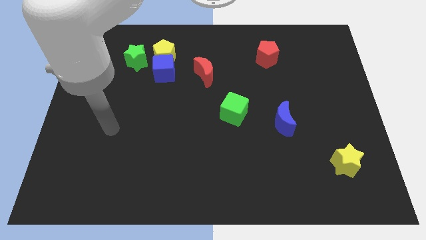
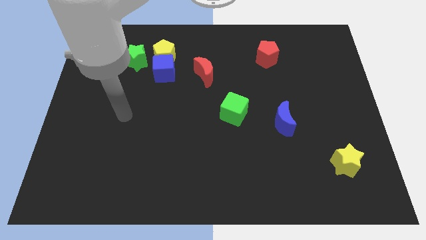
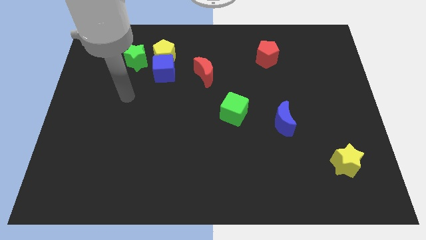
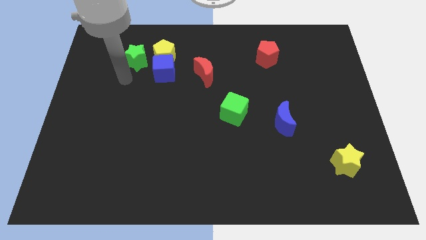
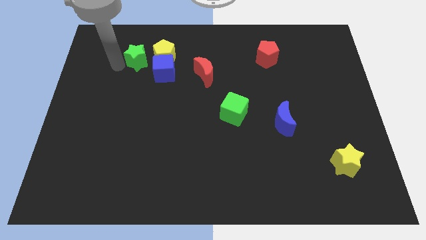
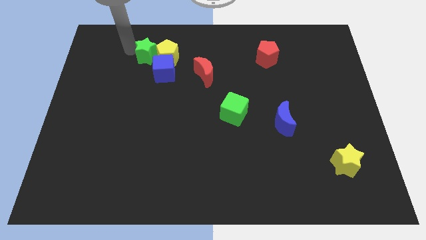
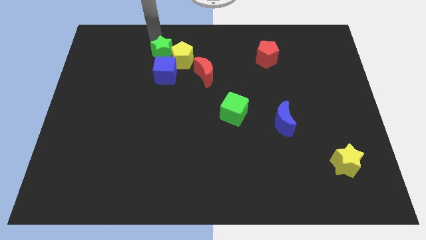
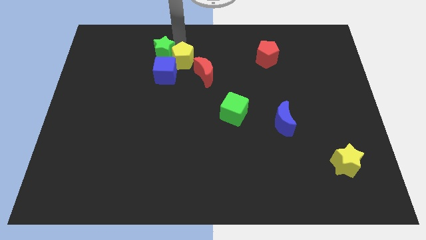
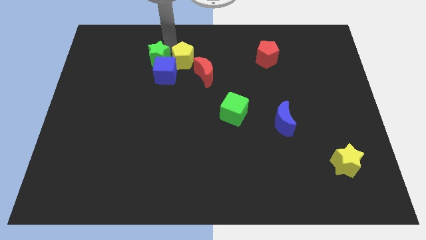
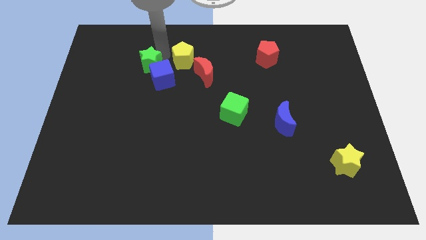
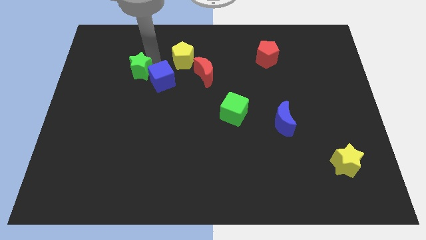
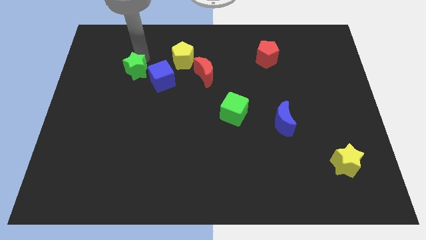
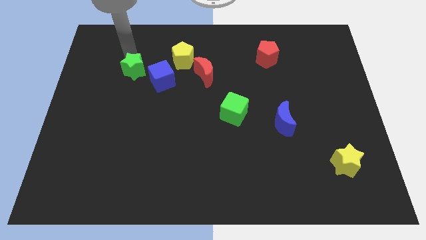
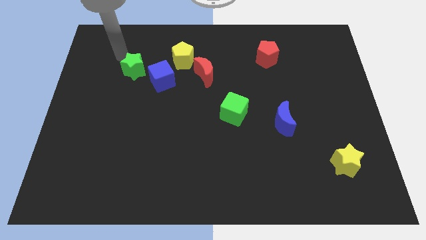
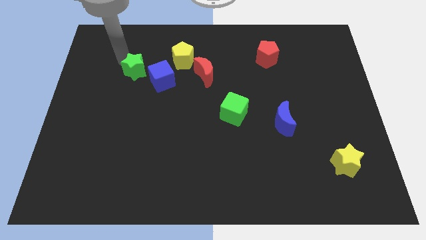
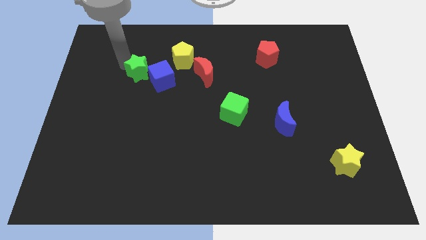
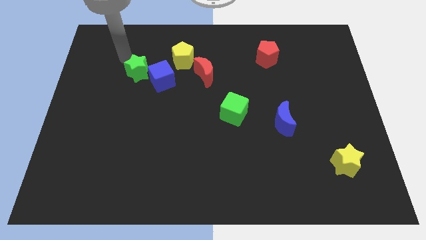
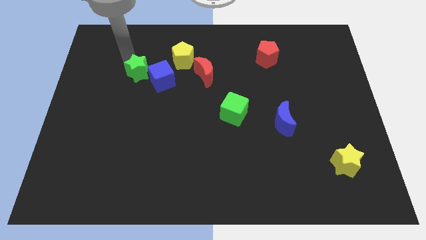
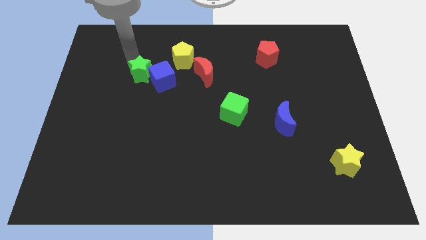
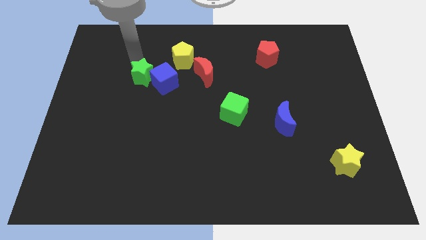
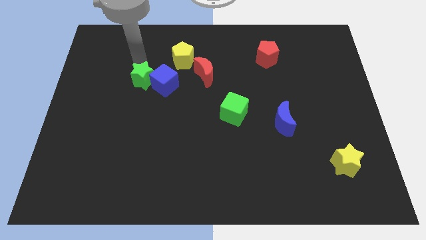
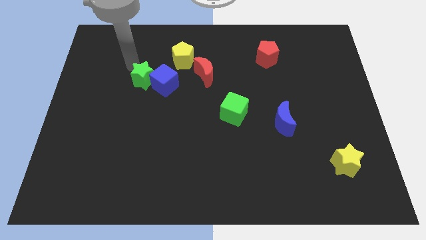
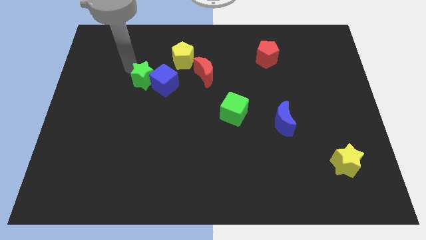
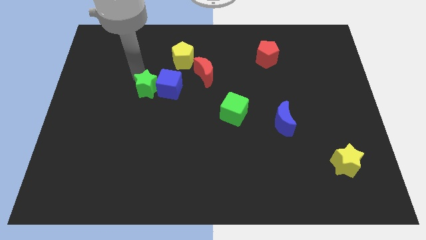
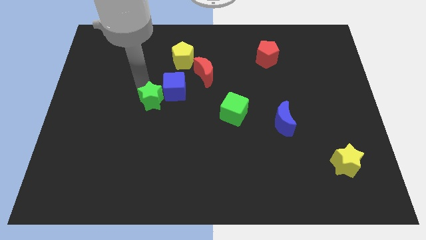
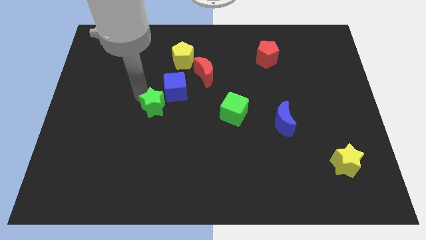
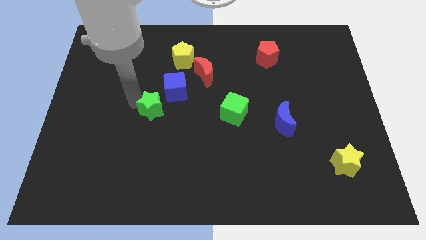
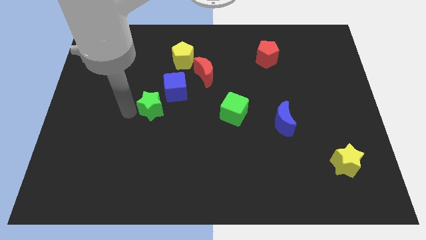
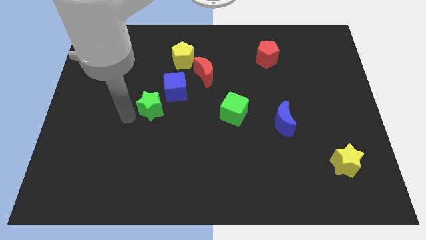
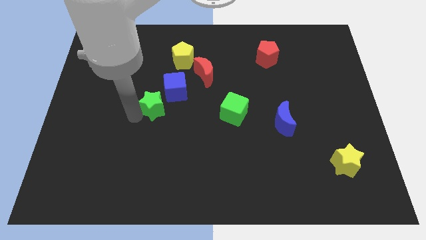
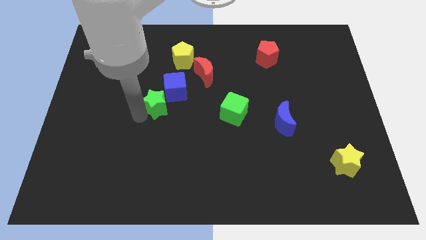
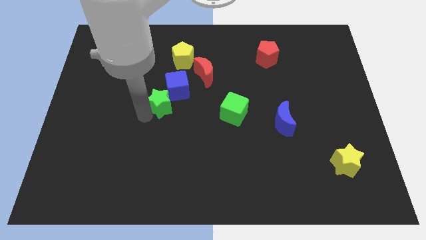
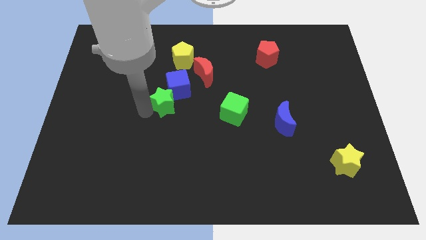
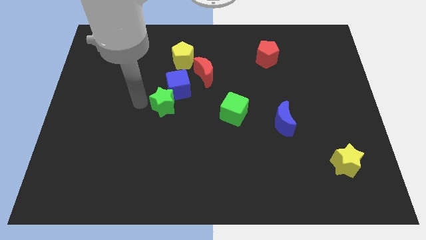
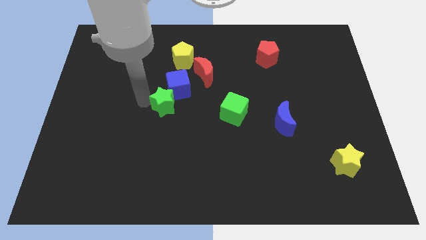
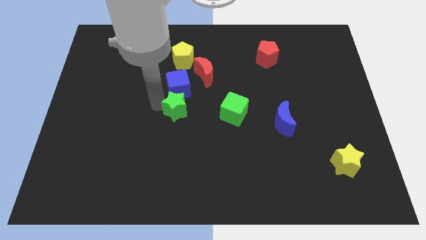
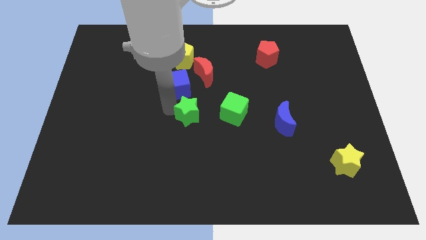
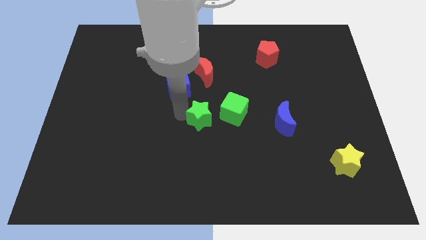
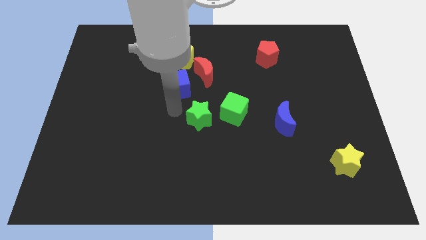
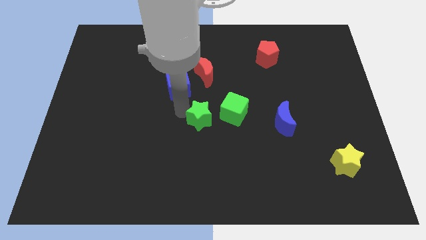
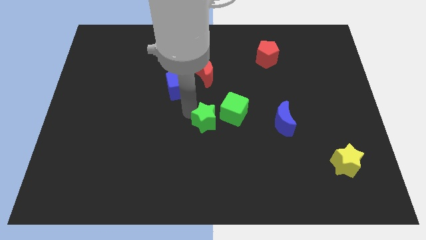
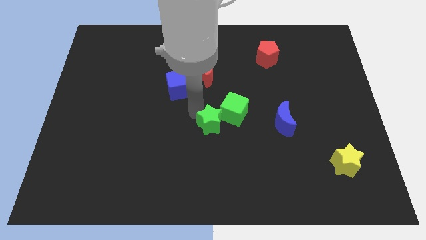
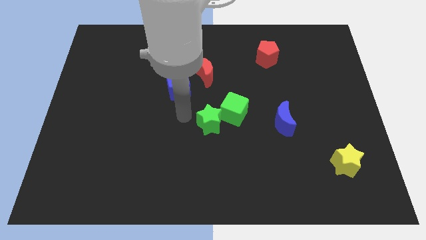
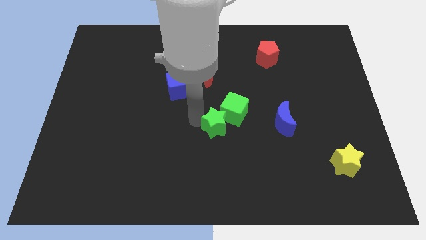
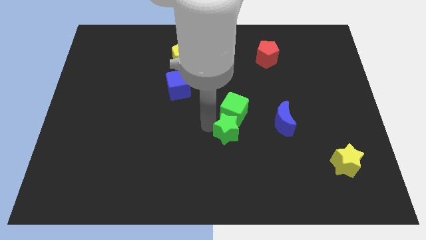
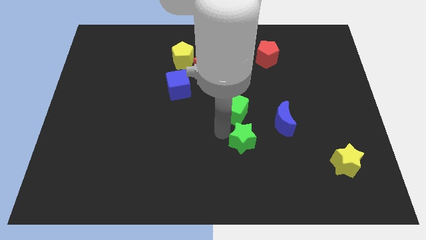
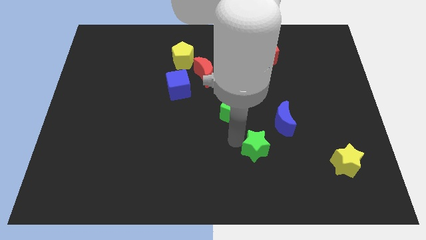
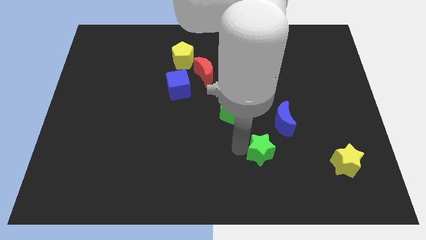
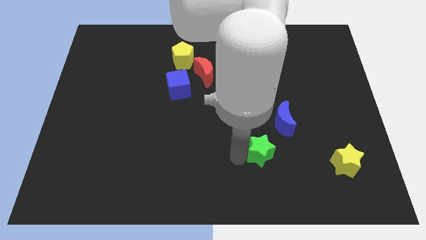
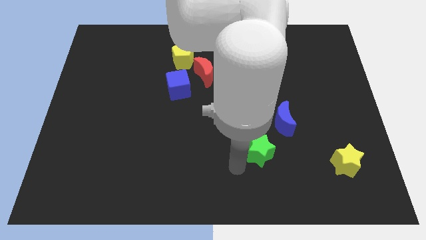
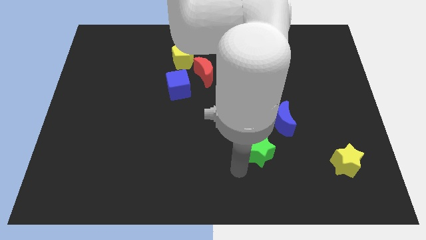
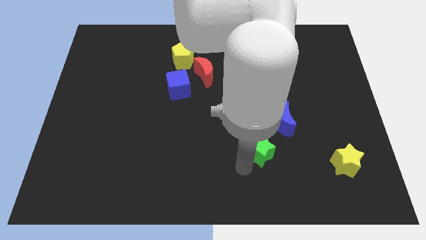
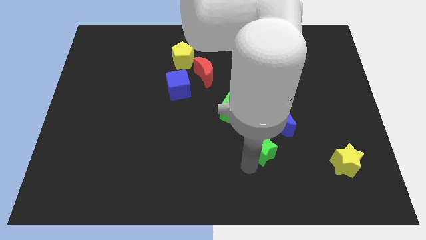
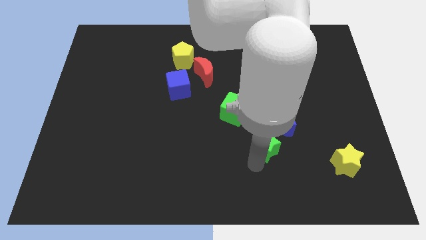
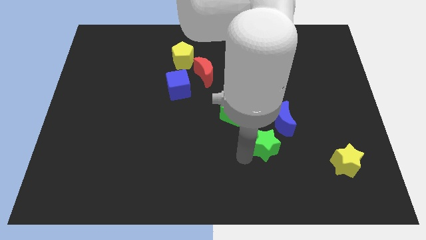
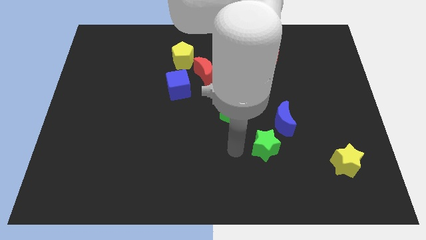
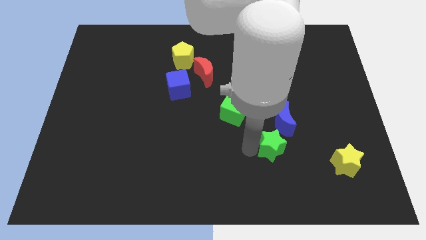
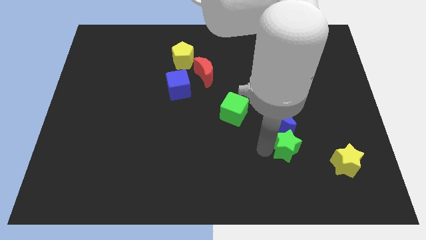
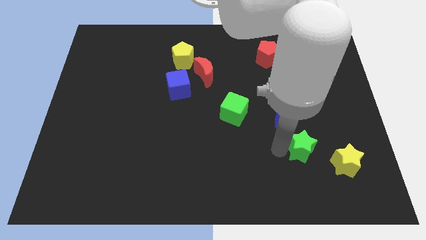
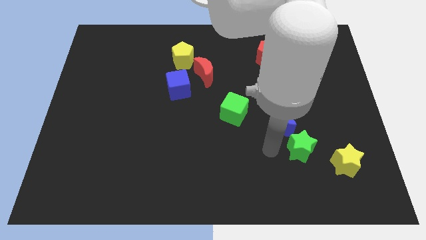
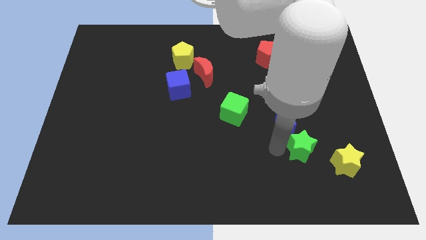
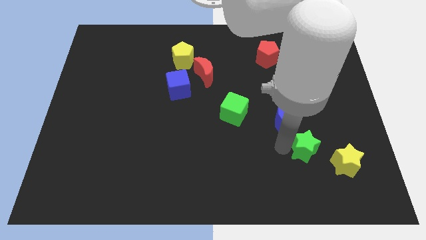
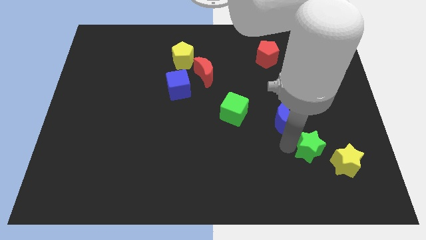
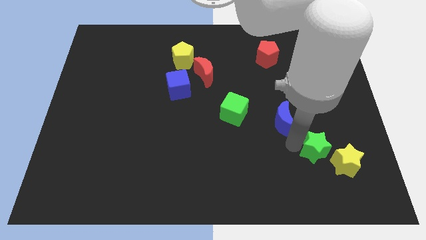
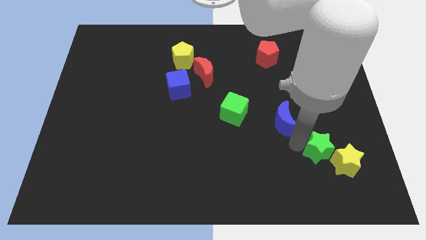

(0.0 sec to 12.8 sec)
push the green star to the yellow star

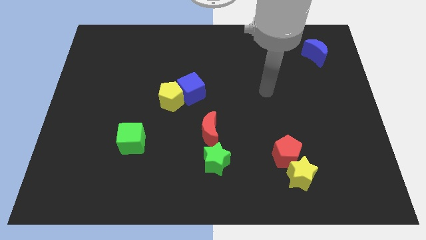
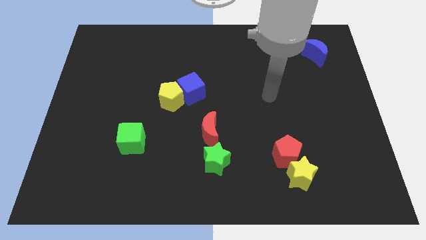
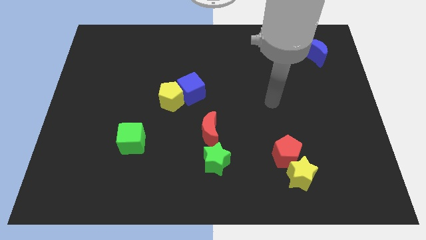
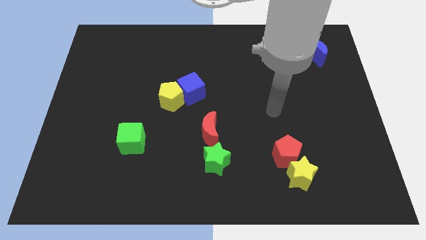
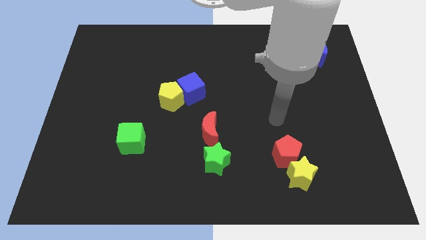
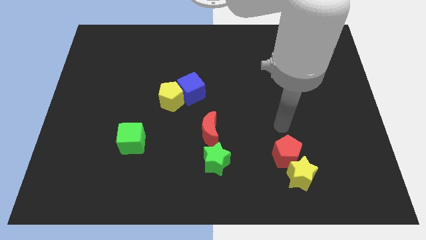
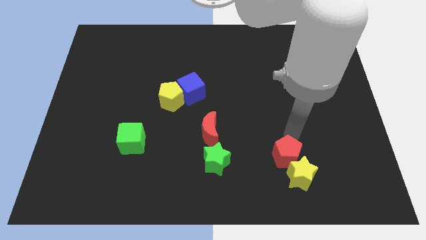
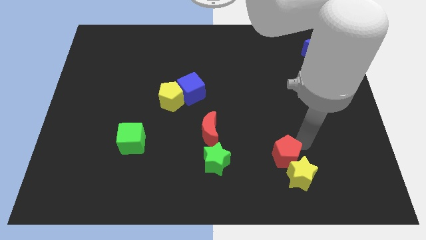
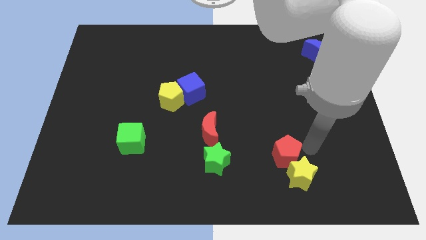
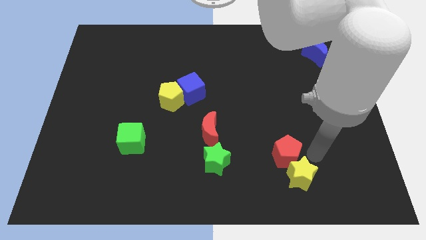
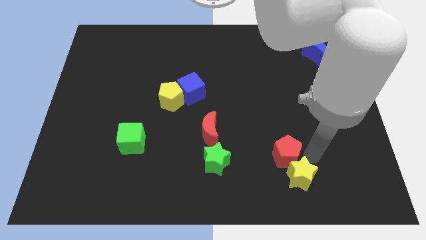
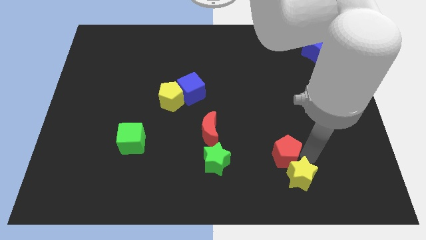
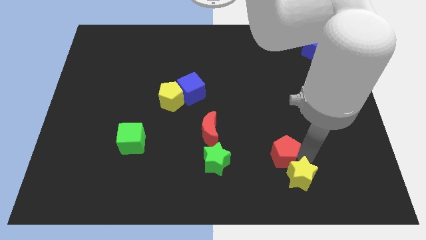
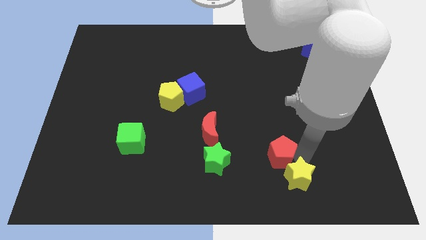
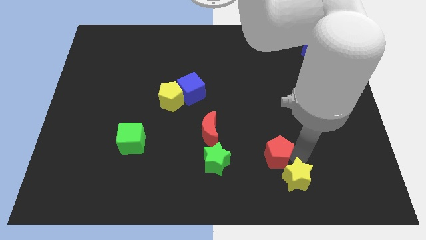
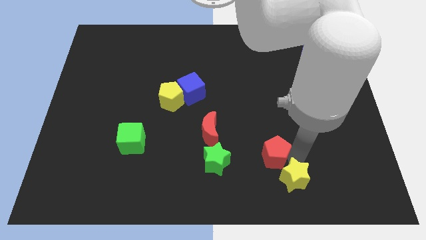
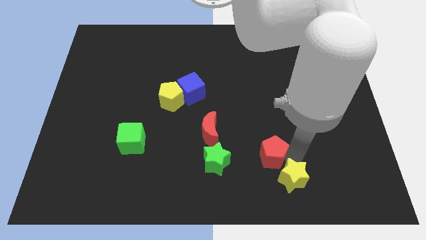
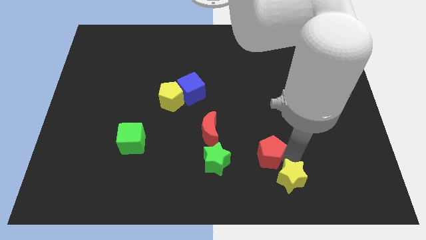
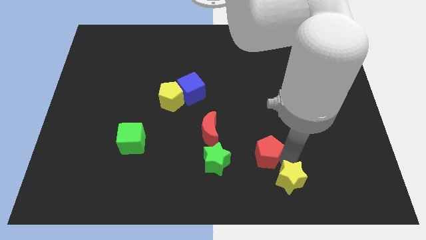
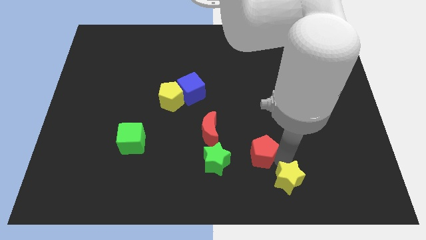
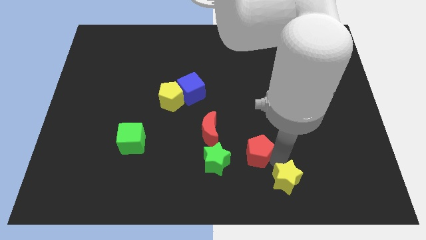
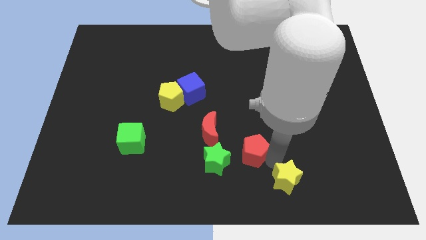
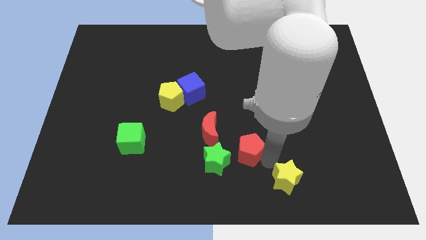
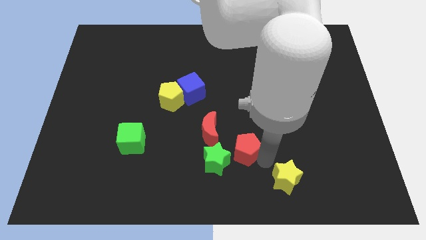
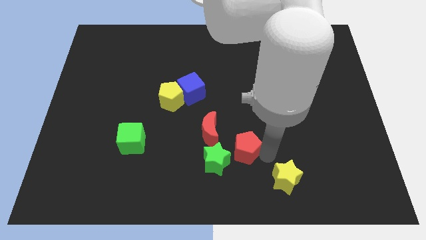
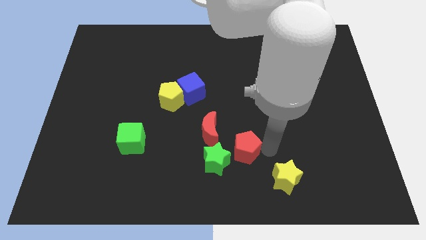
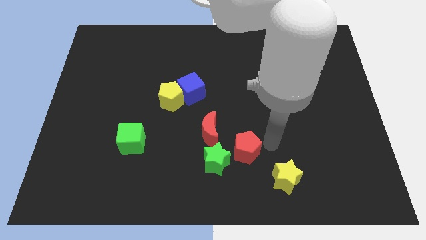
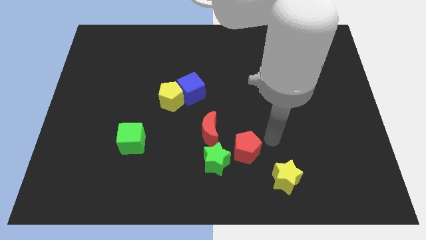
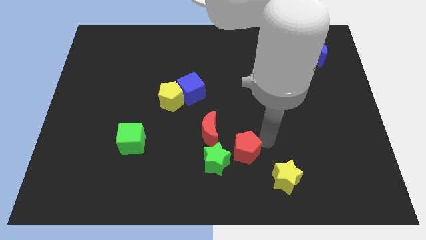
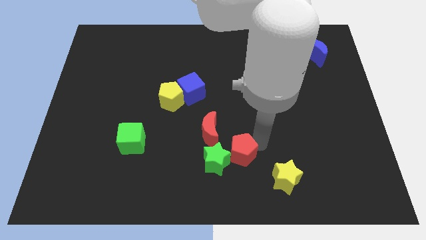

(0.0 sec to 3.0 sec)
move the red pentagon to the green star
